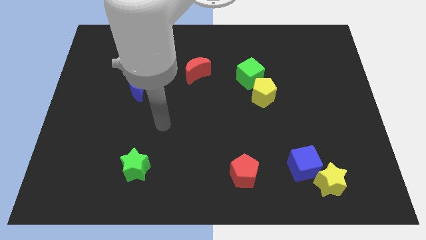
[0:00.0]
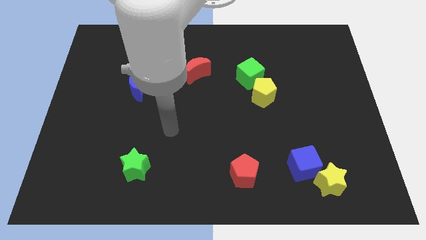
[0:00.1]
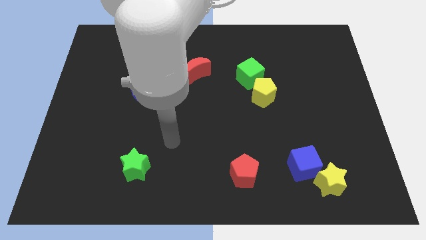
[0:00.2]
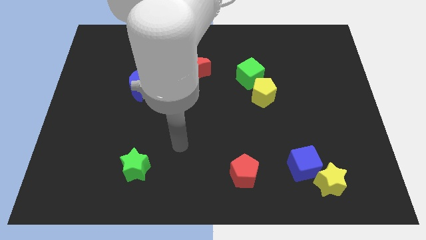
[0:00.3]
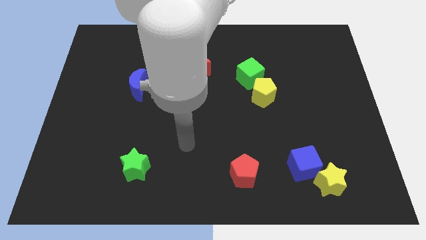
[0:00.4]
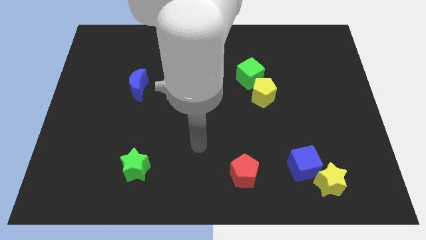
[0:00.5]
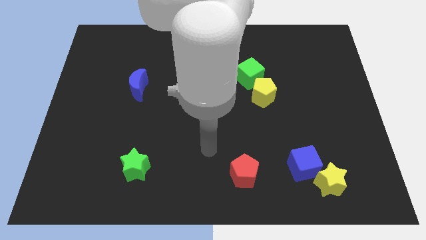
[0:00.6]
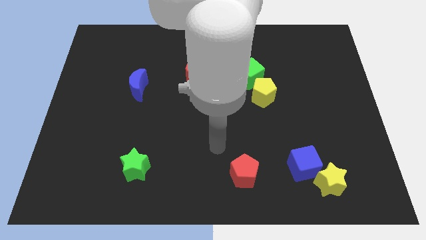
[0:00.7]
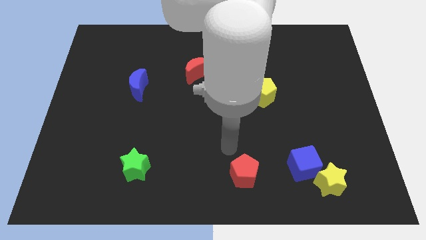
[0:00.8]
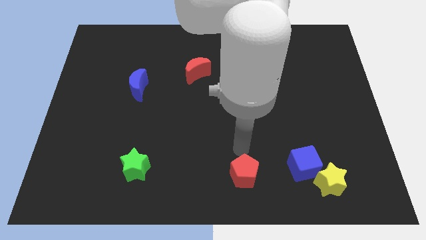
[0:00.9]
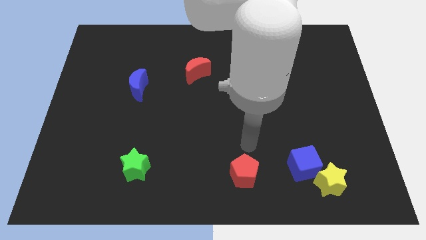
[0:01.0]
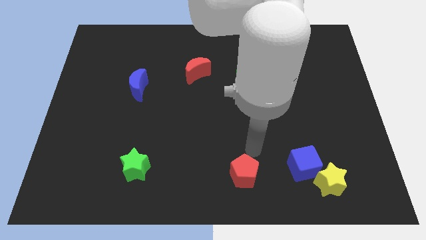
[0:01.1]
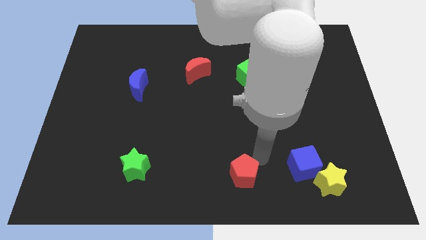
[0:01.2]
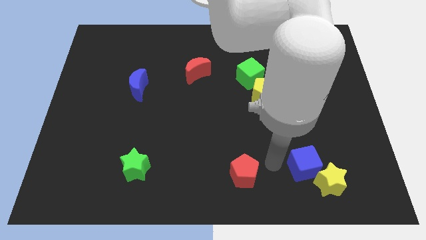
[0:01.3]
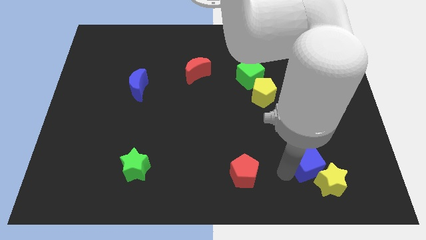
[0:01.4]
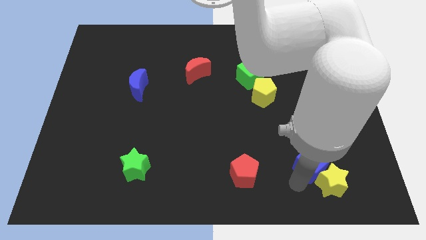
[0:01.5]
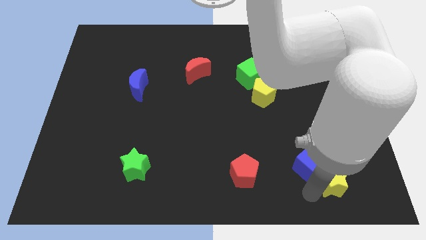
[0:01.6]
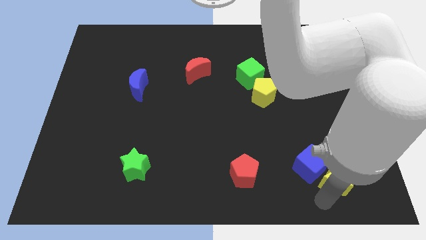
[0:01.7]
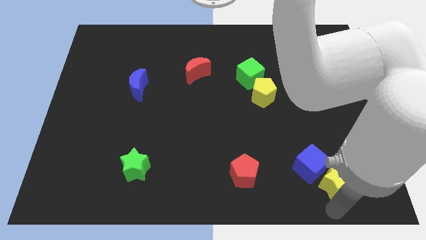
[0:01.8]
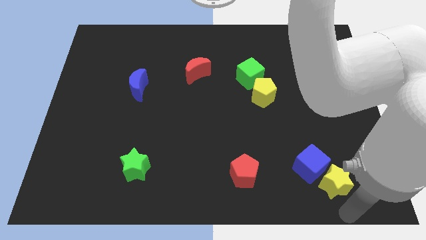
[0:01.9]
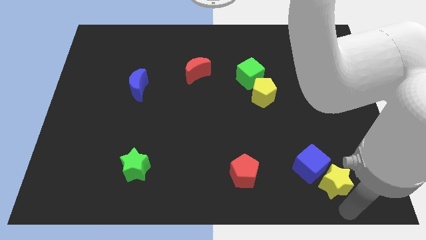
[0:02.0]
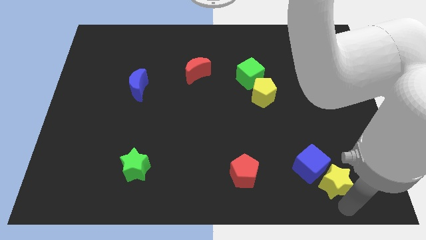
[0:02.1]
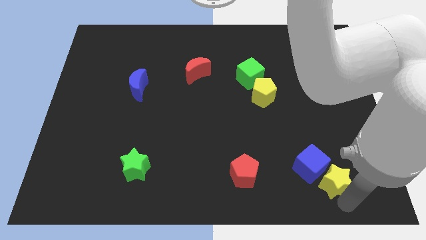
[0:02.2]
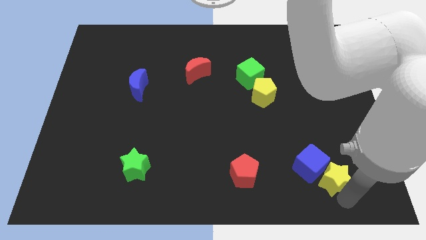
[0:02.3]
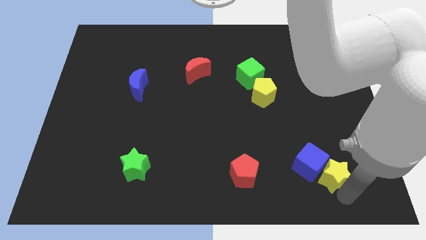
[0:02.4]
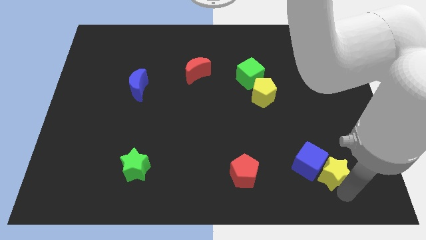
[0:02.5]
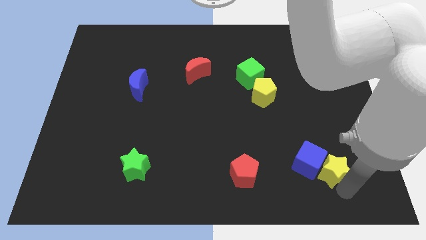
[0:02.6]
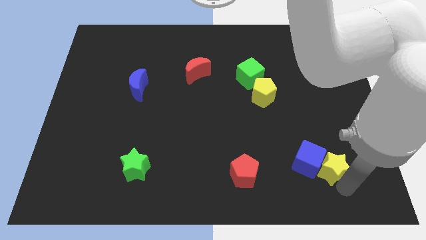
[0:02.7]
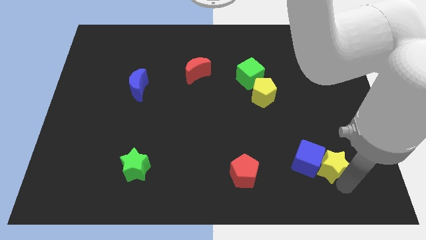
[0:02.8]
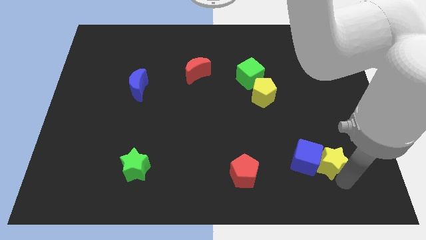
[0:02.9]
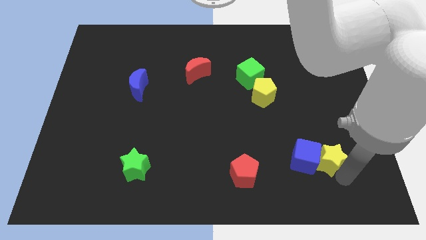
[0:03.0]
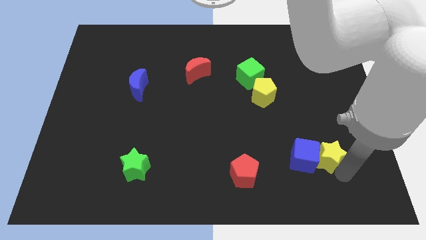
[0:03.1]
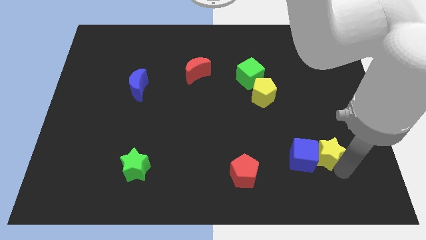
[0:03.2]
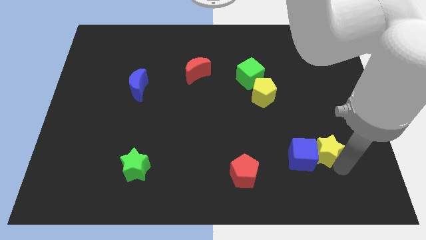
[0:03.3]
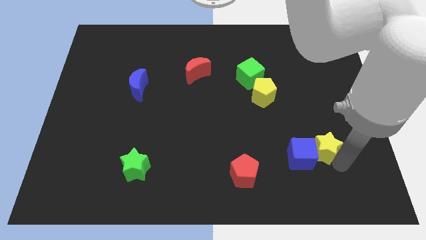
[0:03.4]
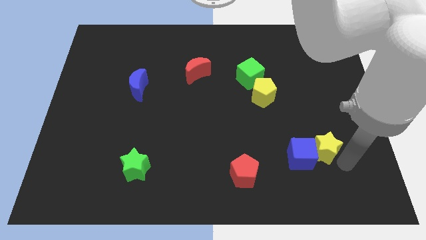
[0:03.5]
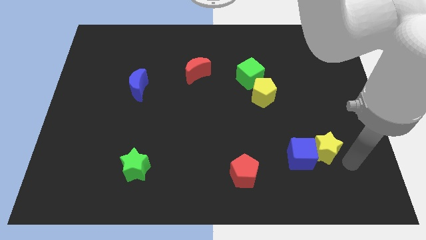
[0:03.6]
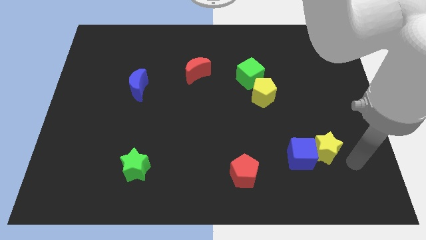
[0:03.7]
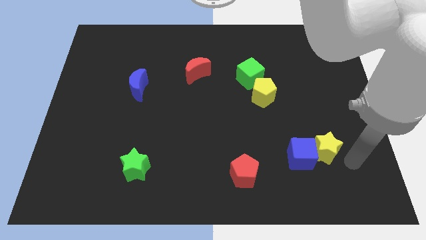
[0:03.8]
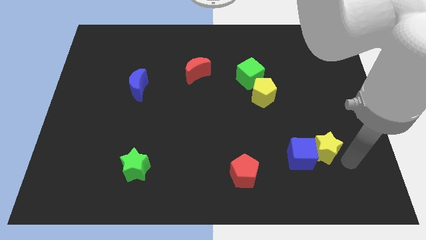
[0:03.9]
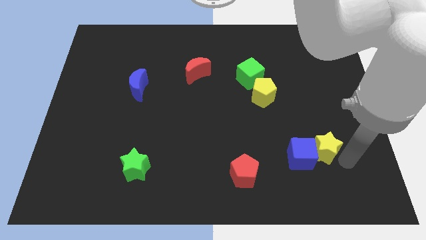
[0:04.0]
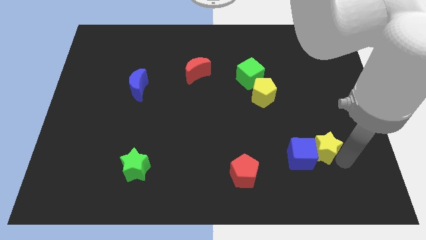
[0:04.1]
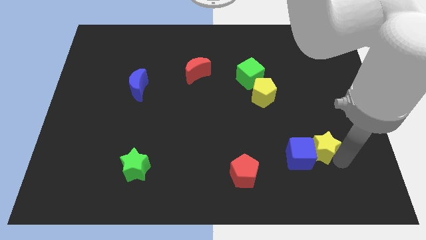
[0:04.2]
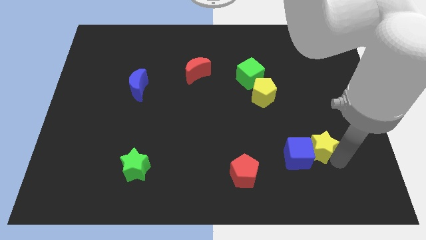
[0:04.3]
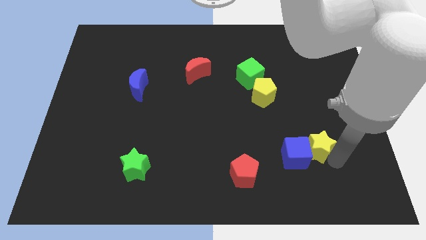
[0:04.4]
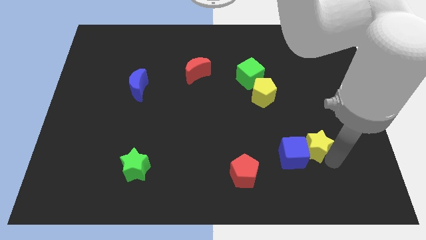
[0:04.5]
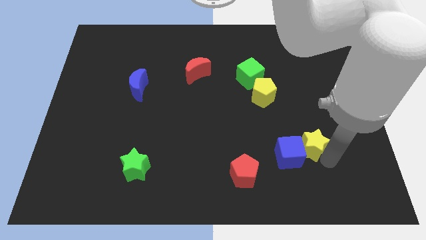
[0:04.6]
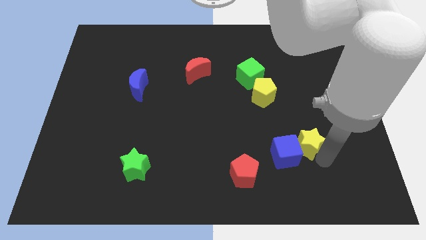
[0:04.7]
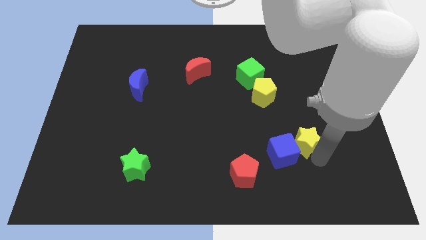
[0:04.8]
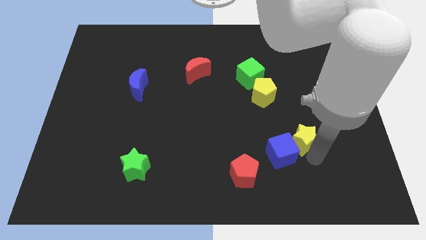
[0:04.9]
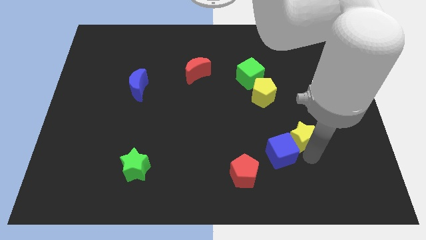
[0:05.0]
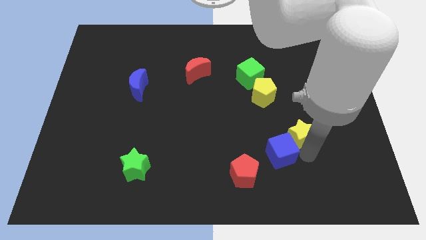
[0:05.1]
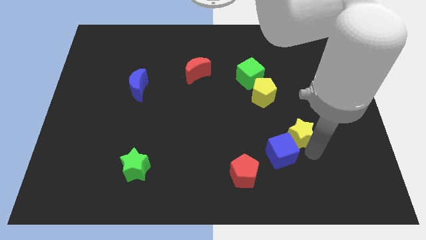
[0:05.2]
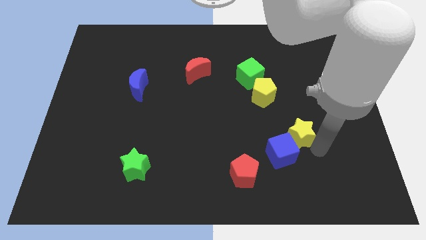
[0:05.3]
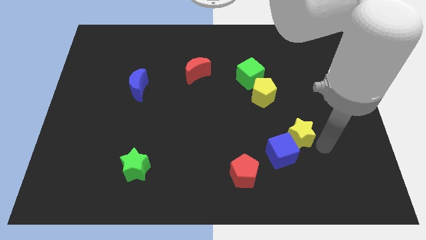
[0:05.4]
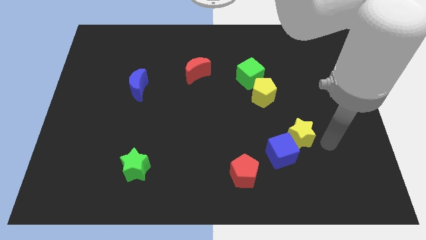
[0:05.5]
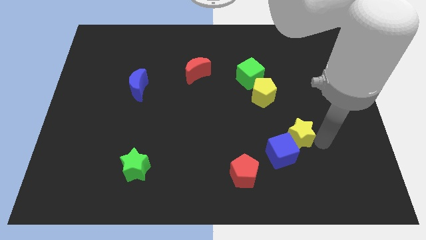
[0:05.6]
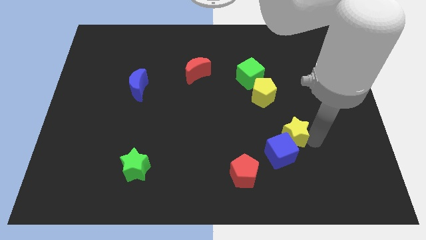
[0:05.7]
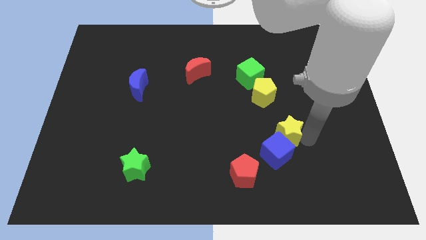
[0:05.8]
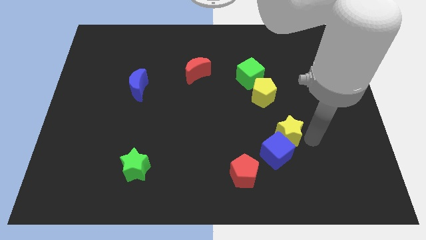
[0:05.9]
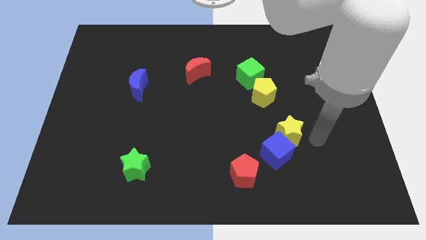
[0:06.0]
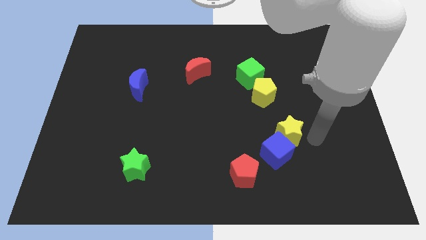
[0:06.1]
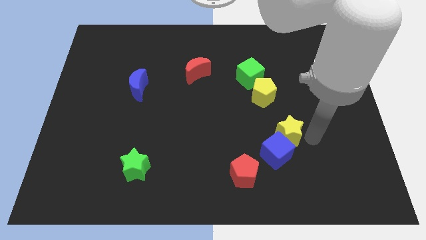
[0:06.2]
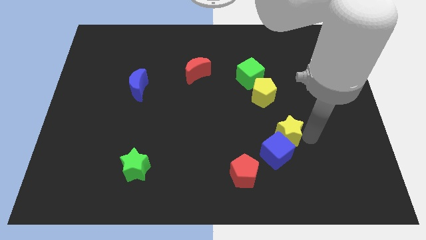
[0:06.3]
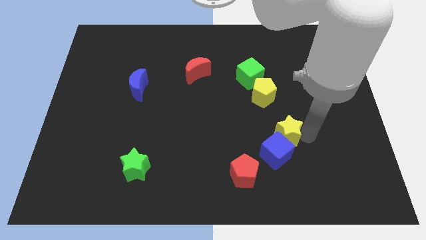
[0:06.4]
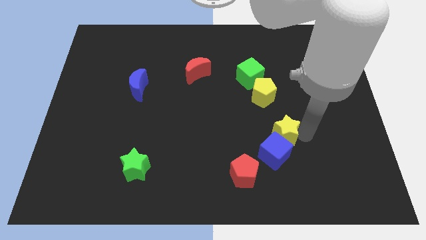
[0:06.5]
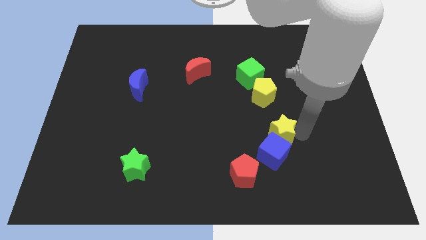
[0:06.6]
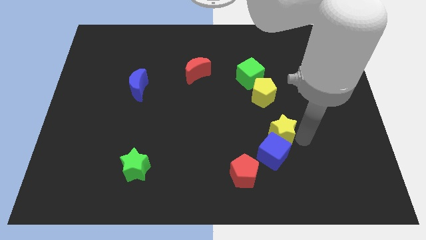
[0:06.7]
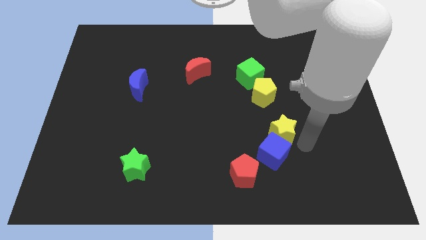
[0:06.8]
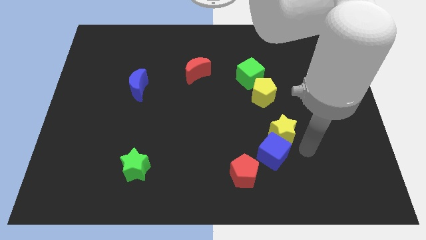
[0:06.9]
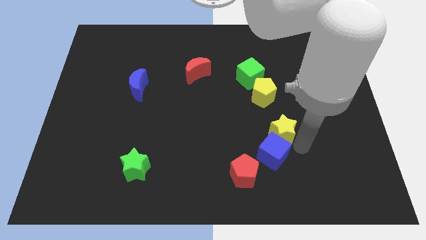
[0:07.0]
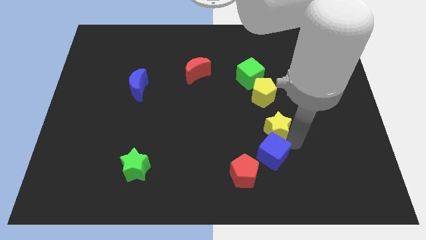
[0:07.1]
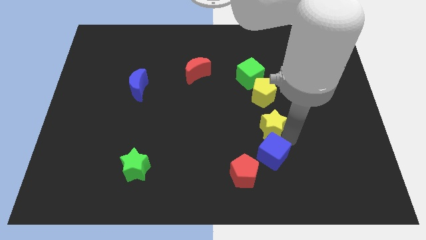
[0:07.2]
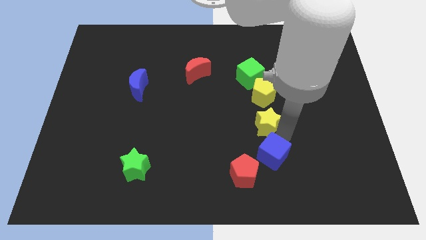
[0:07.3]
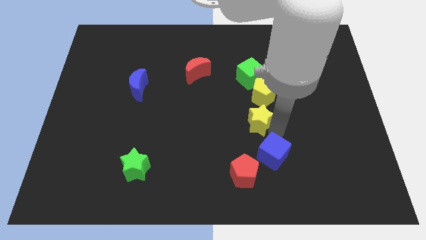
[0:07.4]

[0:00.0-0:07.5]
move the yellow star upwards and left diagonally

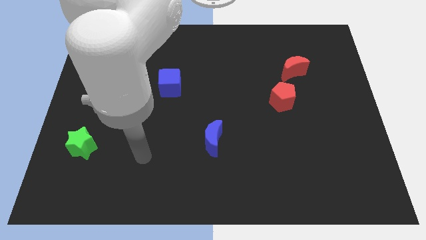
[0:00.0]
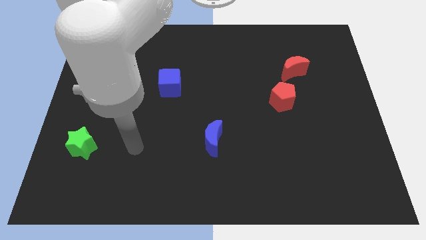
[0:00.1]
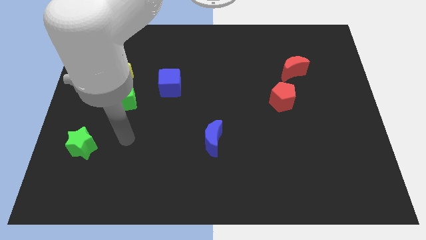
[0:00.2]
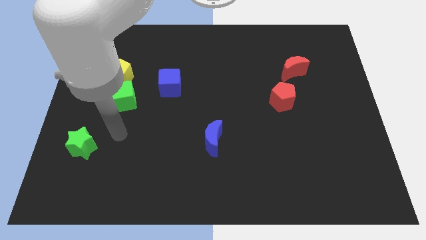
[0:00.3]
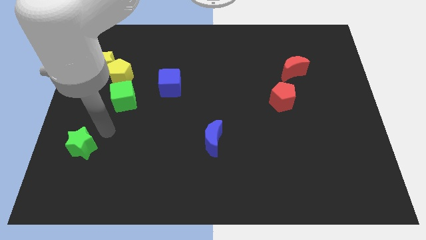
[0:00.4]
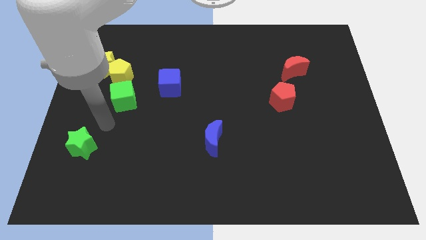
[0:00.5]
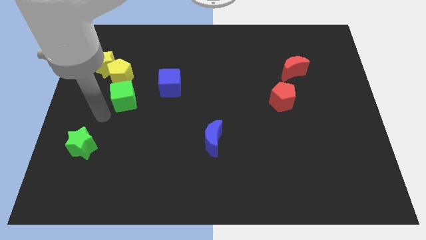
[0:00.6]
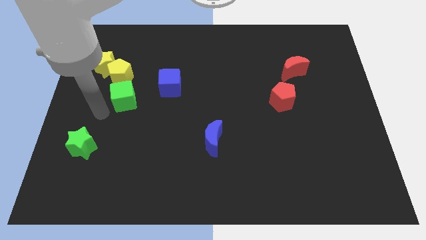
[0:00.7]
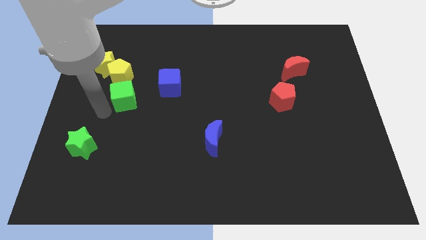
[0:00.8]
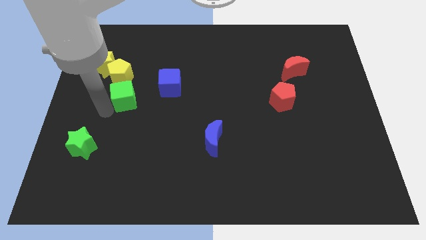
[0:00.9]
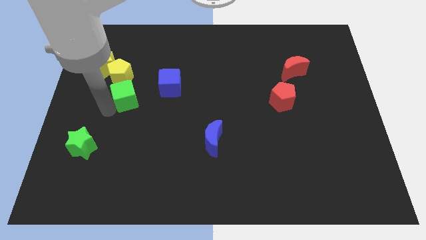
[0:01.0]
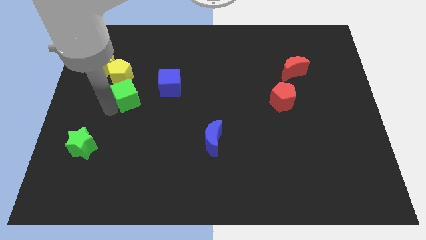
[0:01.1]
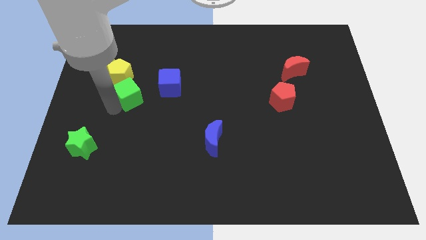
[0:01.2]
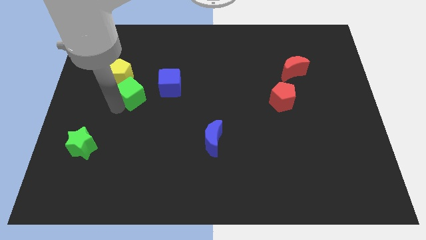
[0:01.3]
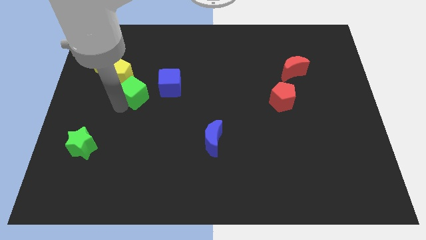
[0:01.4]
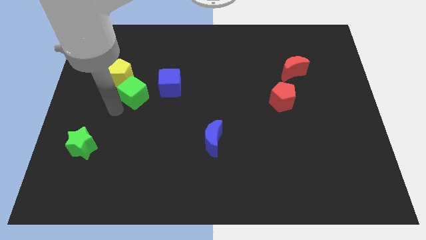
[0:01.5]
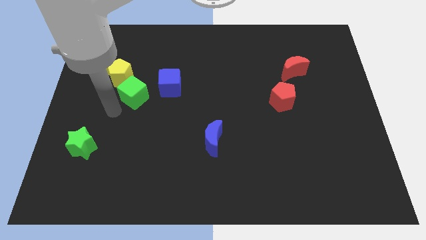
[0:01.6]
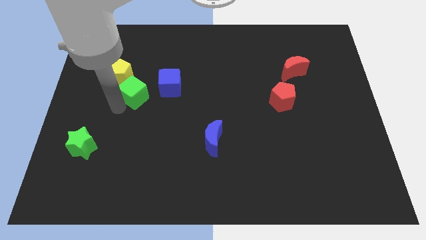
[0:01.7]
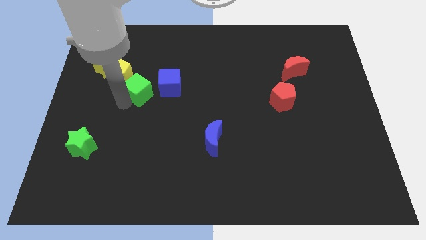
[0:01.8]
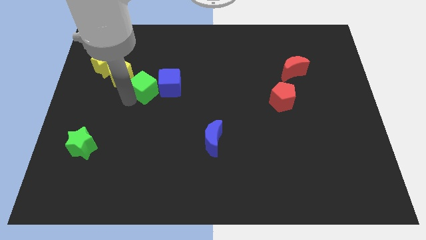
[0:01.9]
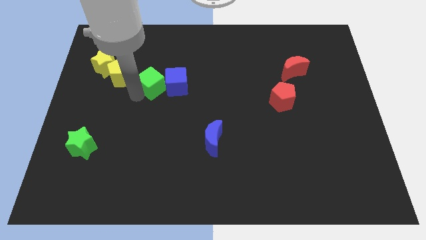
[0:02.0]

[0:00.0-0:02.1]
slide the green cube up and right somewhat
